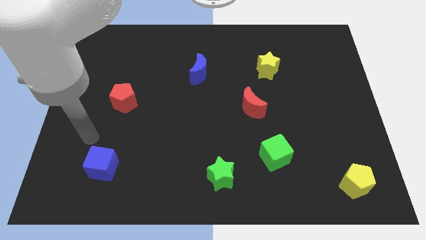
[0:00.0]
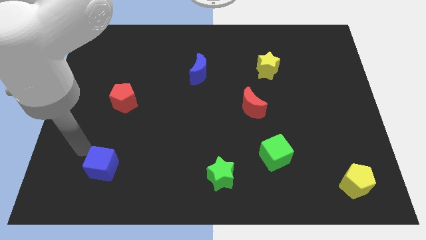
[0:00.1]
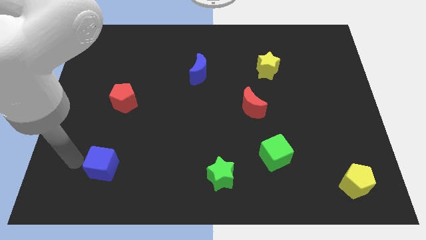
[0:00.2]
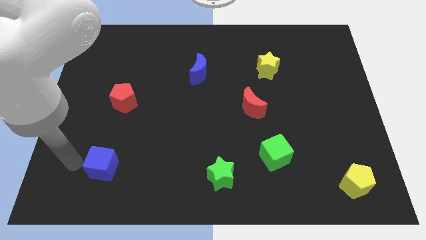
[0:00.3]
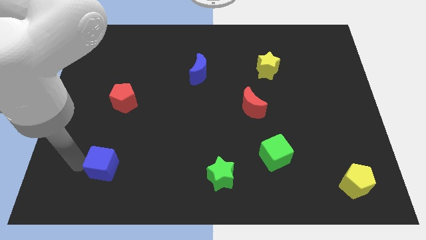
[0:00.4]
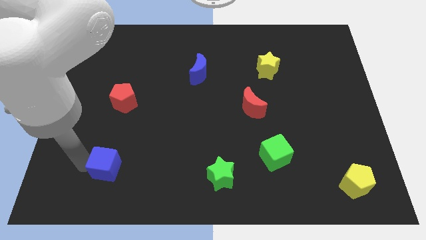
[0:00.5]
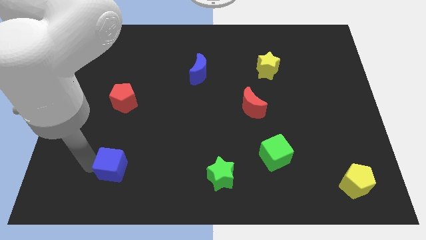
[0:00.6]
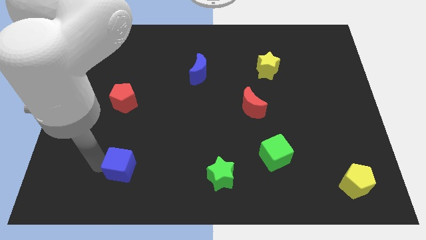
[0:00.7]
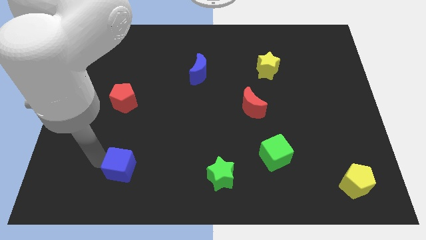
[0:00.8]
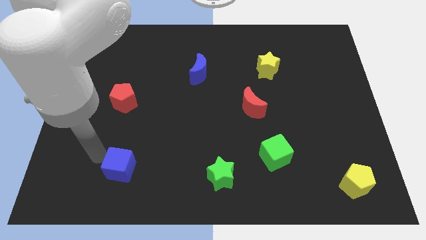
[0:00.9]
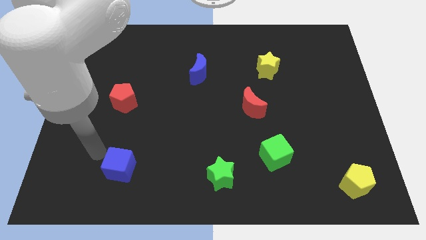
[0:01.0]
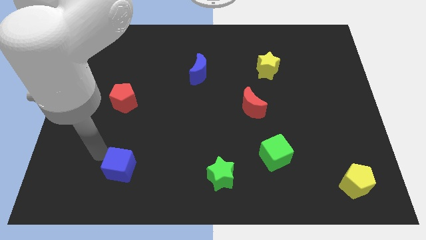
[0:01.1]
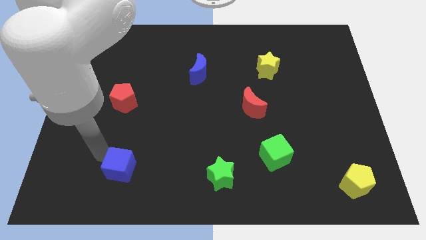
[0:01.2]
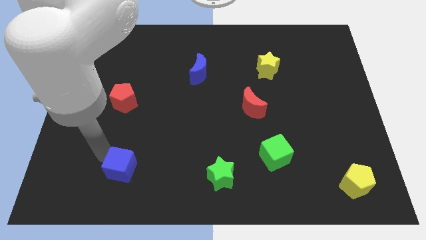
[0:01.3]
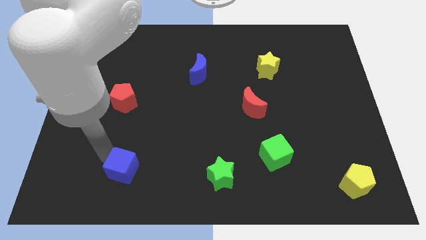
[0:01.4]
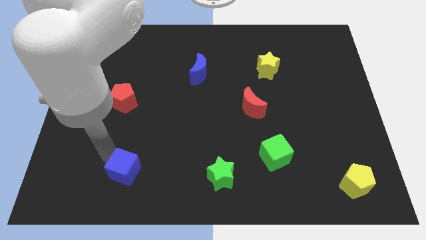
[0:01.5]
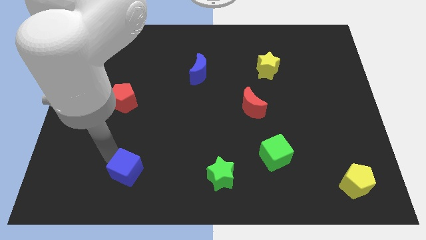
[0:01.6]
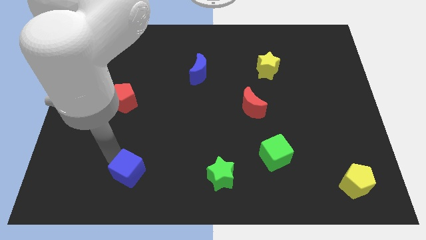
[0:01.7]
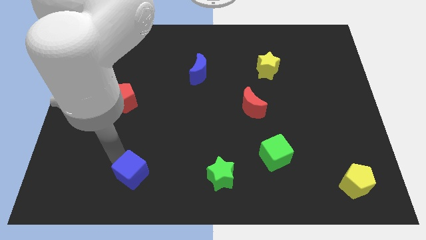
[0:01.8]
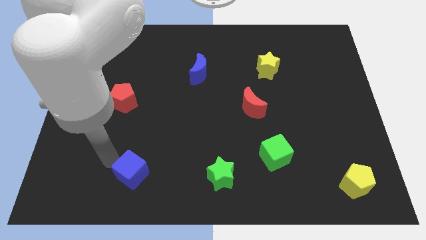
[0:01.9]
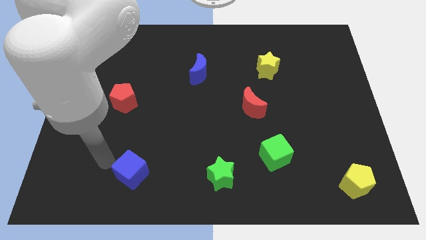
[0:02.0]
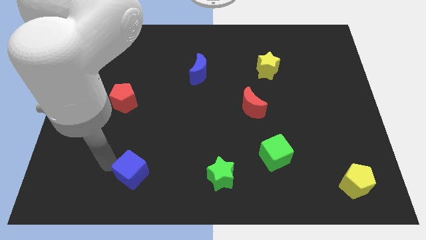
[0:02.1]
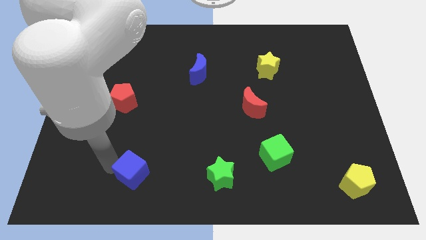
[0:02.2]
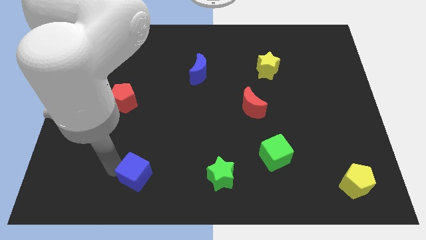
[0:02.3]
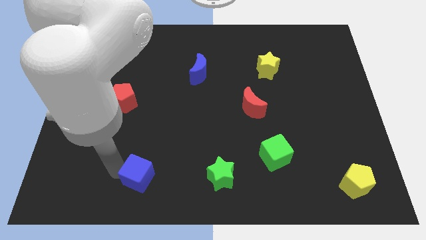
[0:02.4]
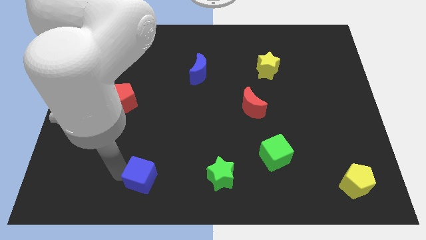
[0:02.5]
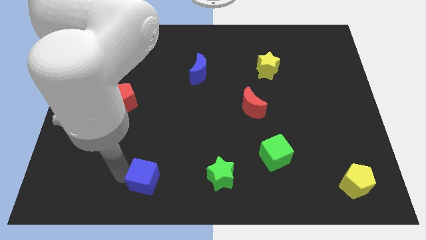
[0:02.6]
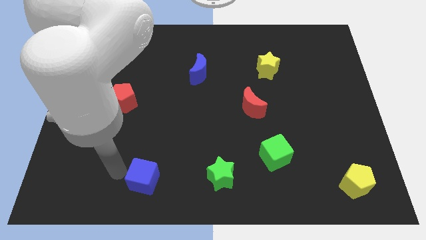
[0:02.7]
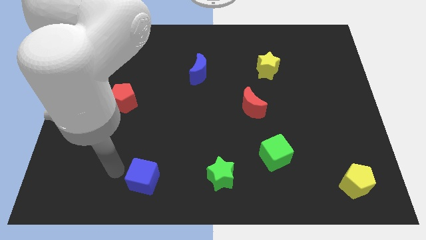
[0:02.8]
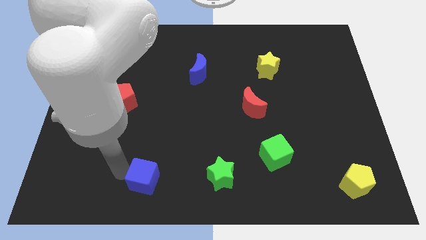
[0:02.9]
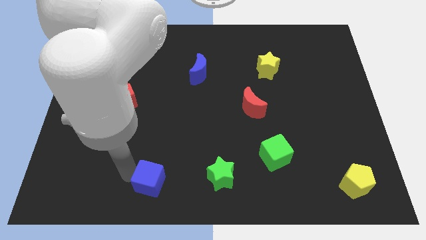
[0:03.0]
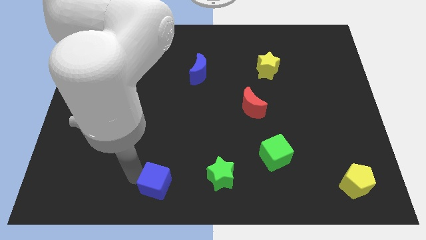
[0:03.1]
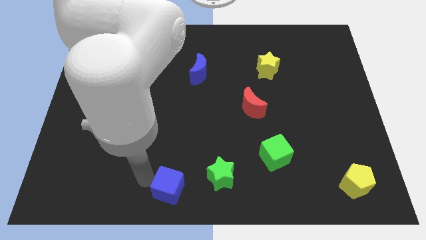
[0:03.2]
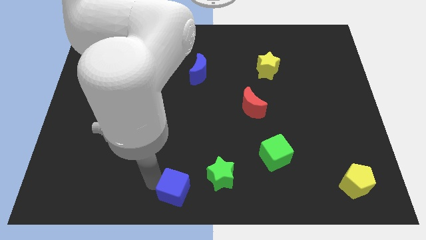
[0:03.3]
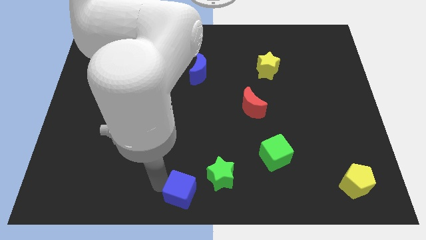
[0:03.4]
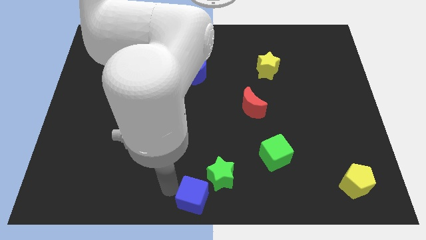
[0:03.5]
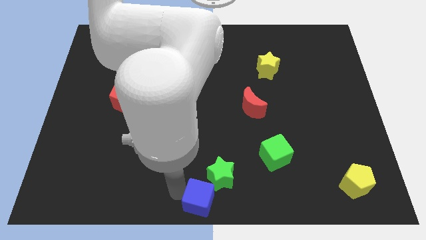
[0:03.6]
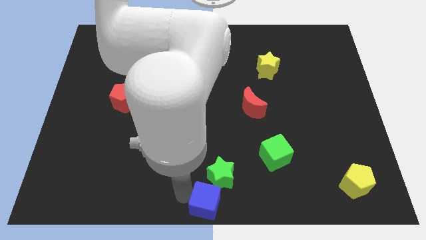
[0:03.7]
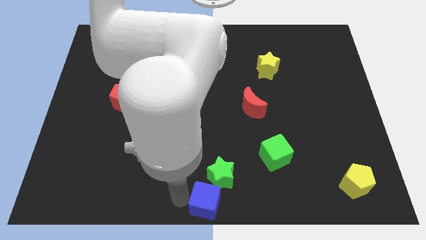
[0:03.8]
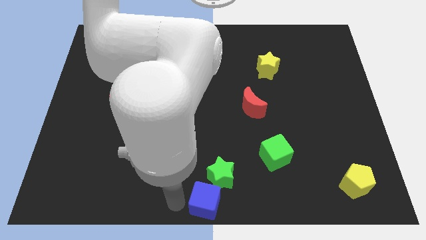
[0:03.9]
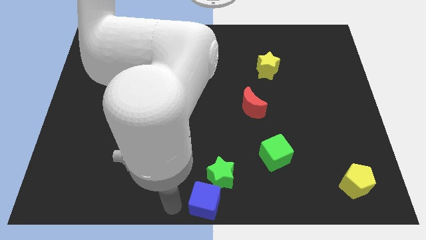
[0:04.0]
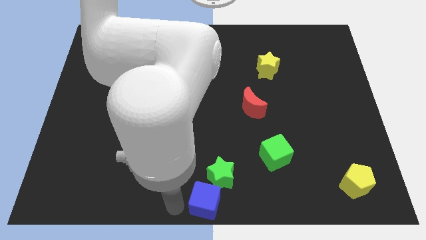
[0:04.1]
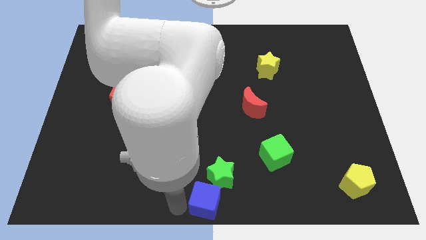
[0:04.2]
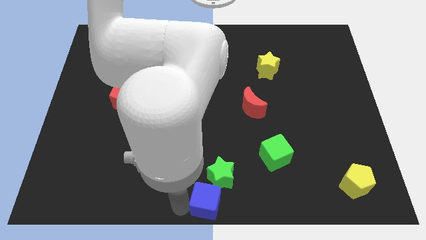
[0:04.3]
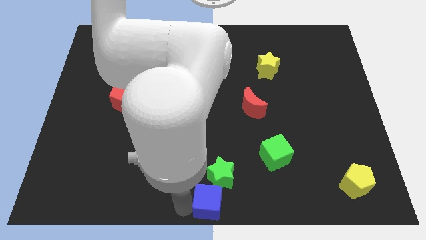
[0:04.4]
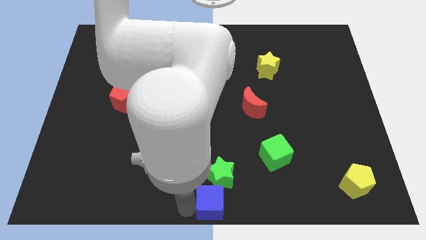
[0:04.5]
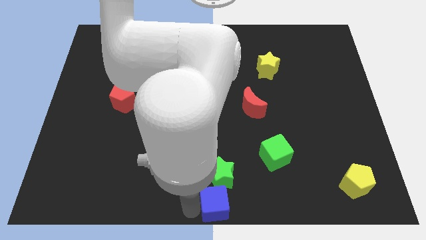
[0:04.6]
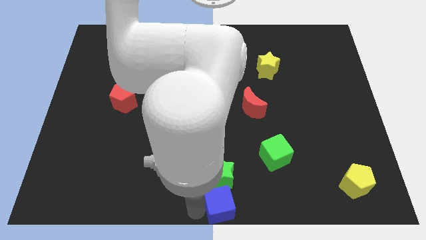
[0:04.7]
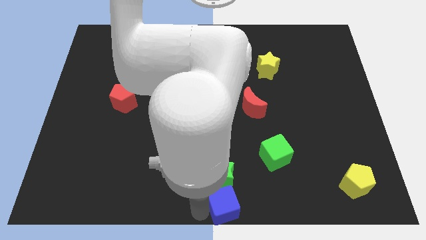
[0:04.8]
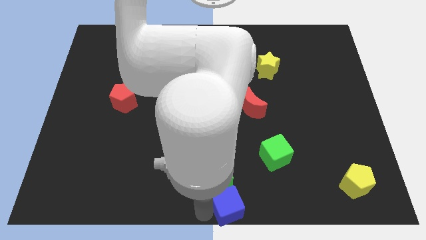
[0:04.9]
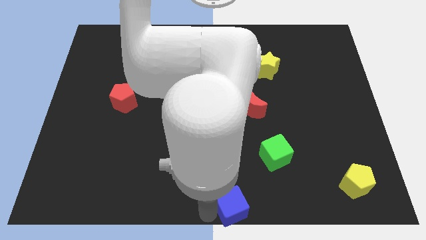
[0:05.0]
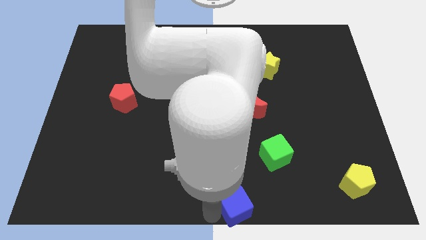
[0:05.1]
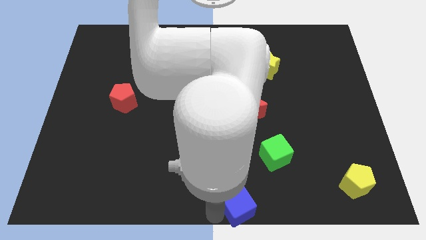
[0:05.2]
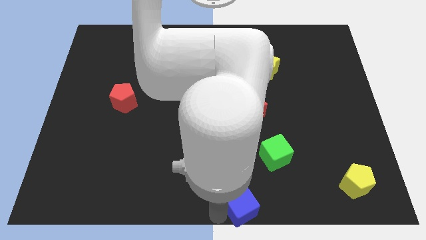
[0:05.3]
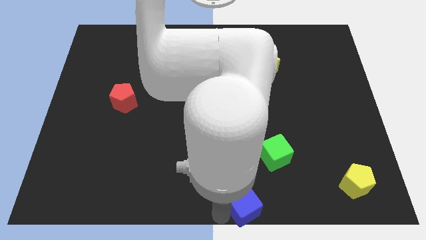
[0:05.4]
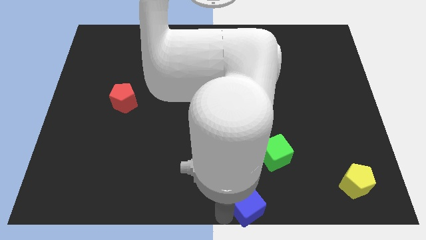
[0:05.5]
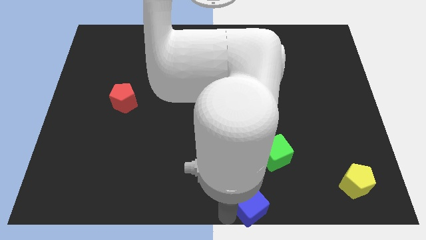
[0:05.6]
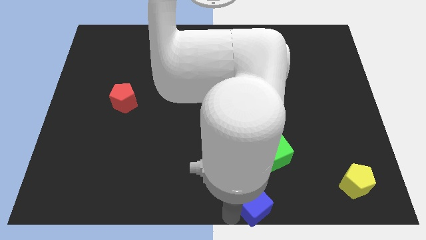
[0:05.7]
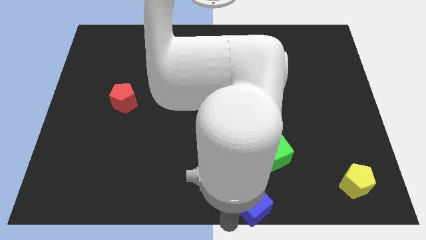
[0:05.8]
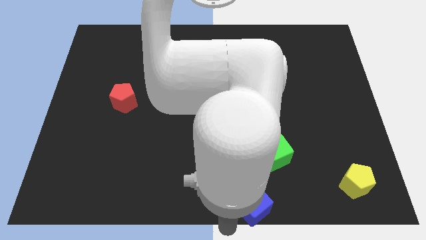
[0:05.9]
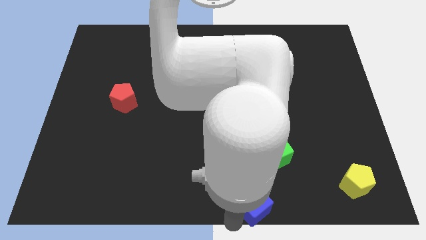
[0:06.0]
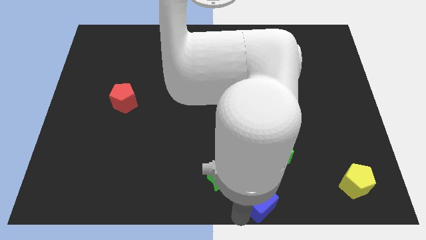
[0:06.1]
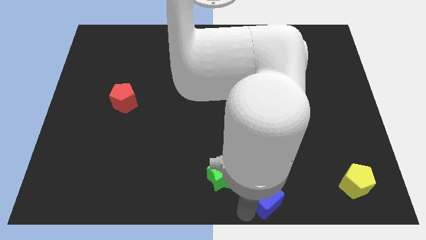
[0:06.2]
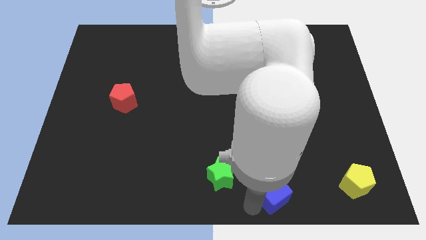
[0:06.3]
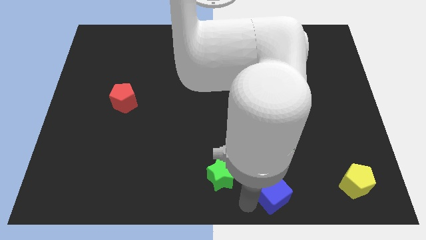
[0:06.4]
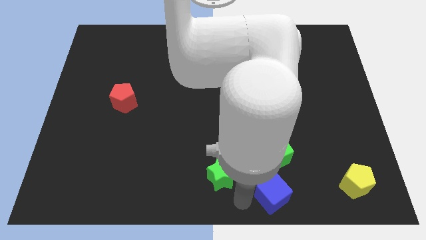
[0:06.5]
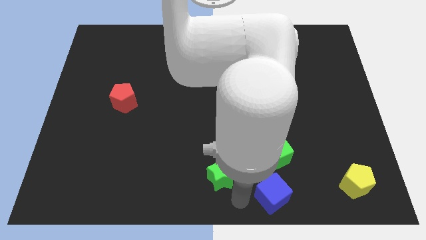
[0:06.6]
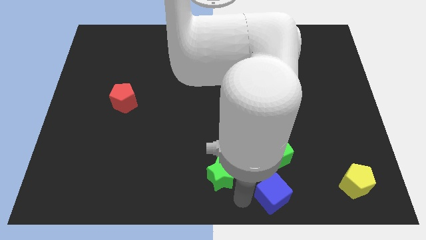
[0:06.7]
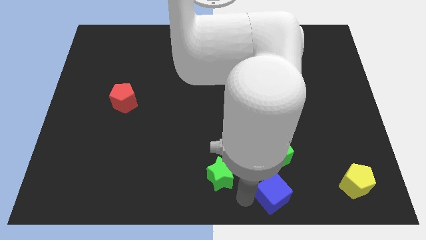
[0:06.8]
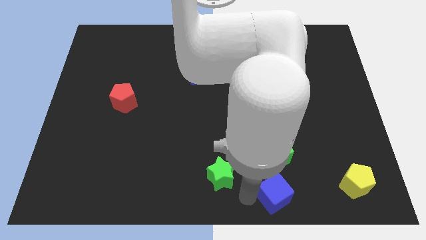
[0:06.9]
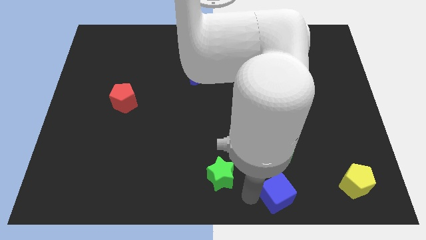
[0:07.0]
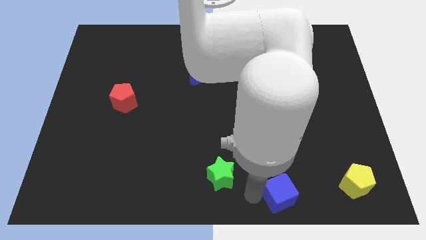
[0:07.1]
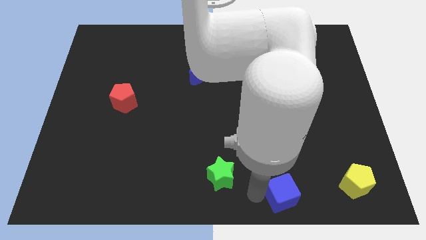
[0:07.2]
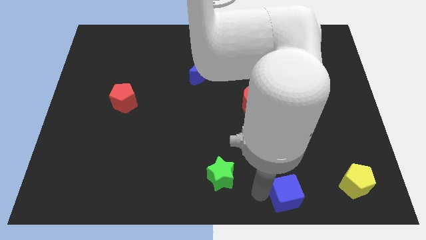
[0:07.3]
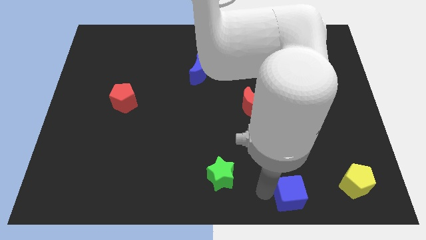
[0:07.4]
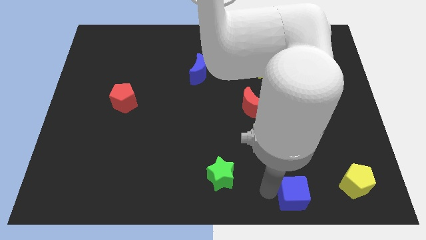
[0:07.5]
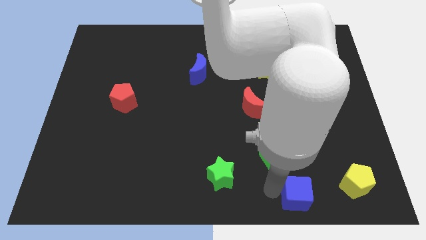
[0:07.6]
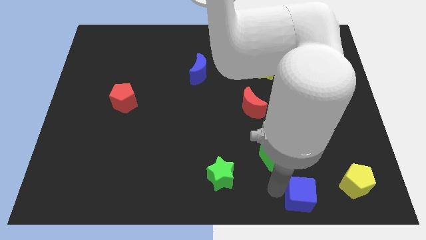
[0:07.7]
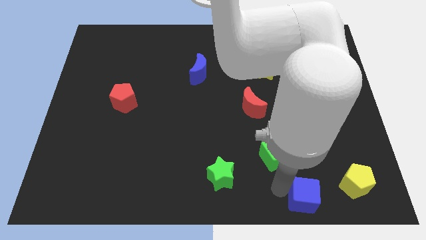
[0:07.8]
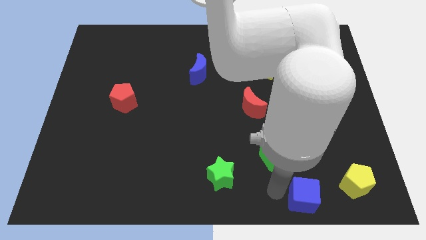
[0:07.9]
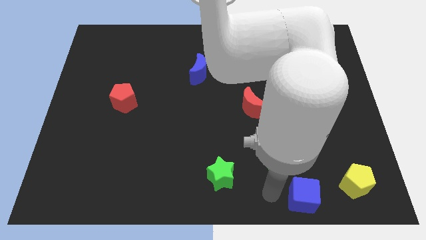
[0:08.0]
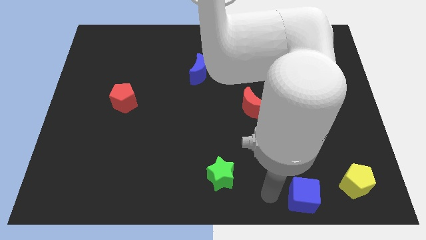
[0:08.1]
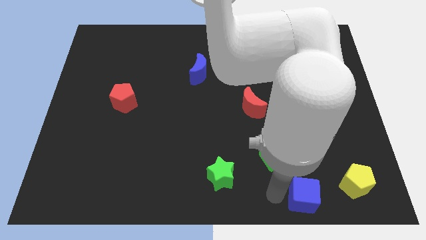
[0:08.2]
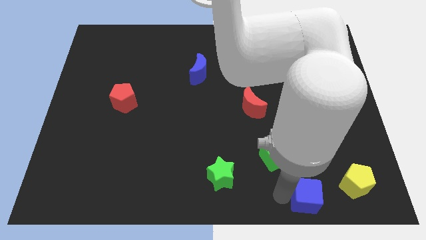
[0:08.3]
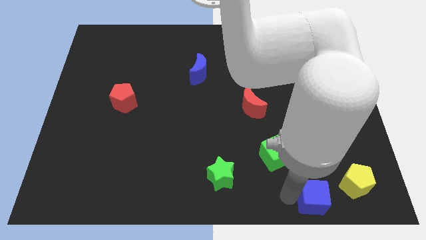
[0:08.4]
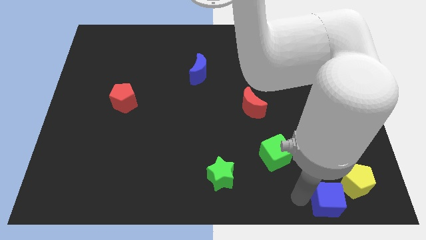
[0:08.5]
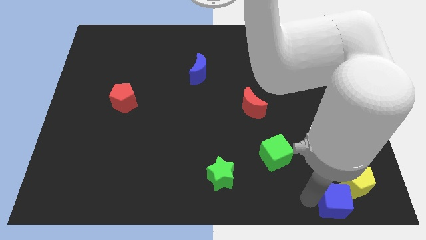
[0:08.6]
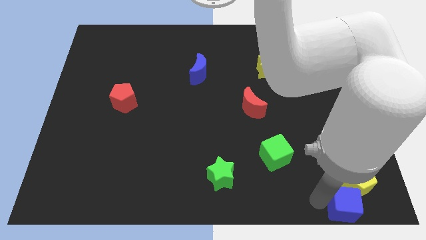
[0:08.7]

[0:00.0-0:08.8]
put the blue cube to the lower right corner
